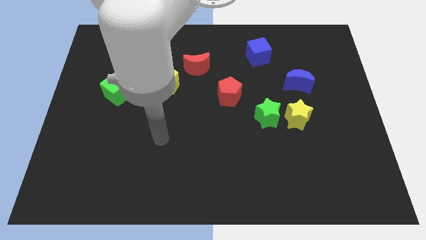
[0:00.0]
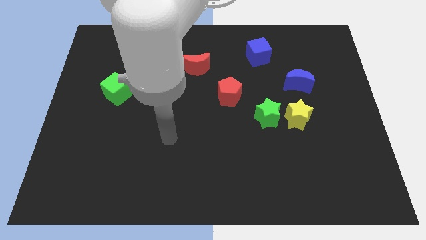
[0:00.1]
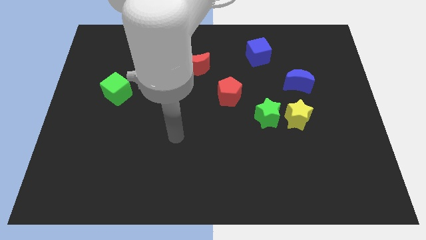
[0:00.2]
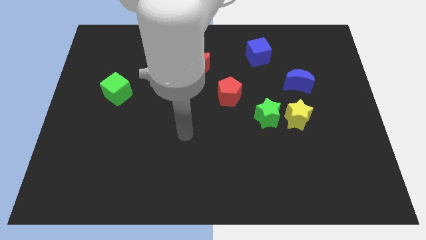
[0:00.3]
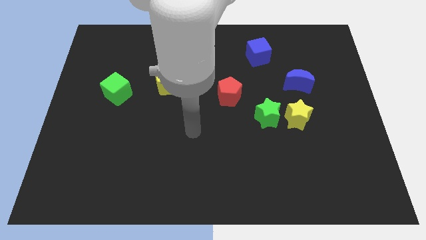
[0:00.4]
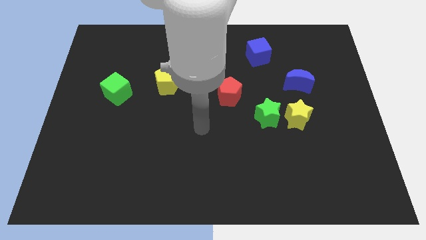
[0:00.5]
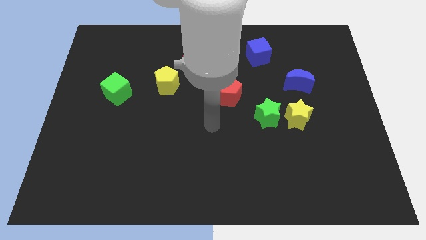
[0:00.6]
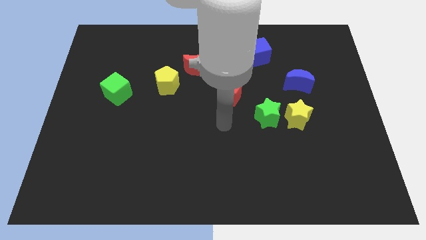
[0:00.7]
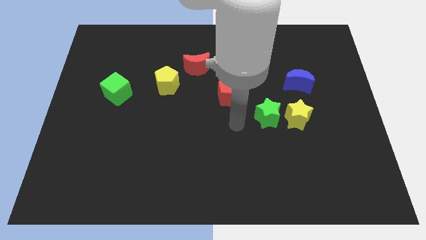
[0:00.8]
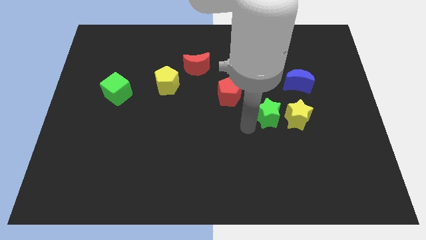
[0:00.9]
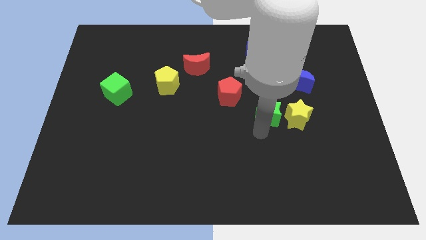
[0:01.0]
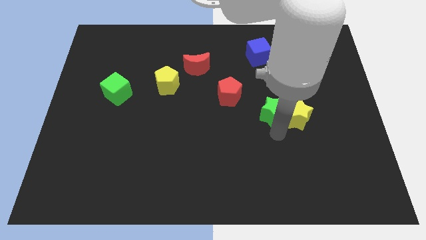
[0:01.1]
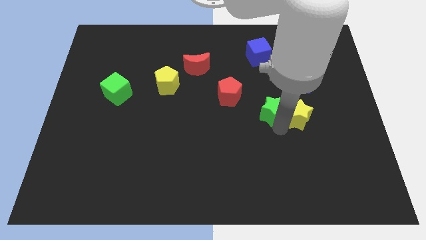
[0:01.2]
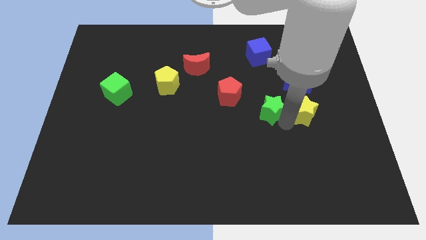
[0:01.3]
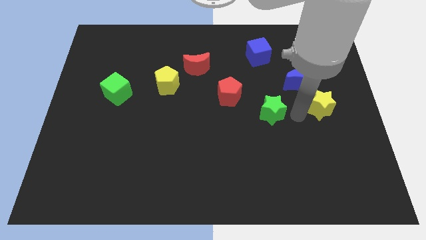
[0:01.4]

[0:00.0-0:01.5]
separate the green star from the yellow star

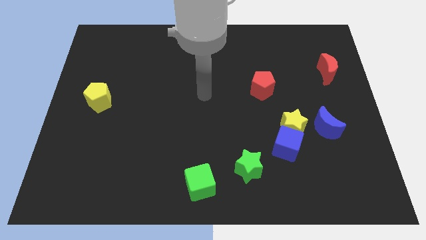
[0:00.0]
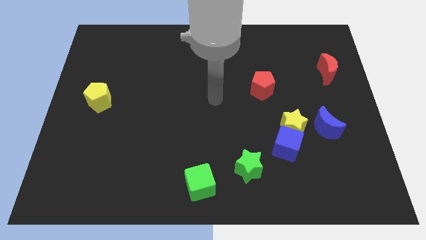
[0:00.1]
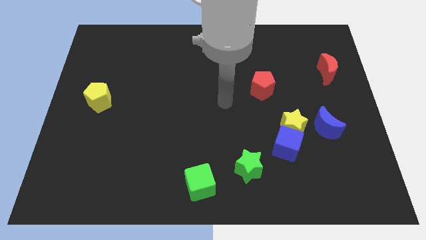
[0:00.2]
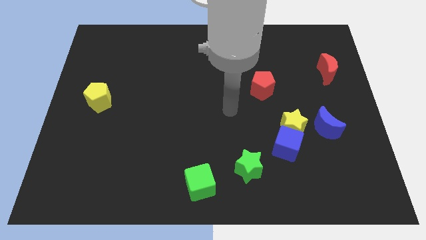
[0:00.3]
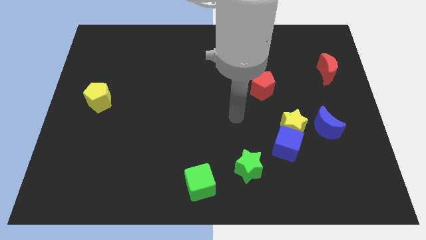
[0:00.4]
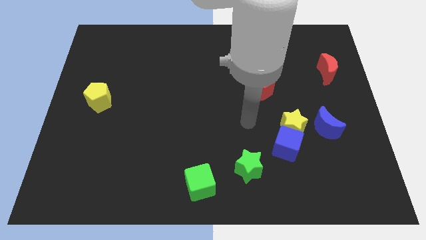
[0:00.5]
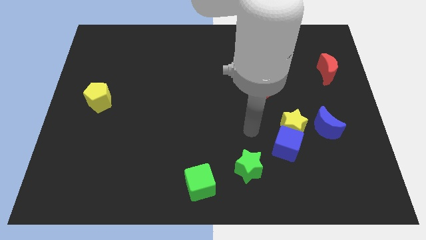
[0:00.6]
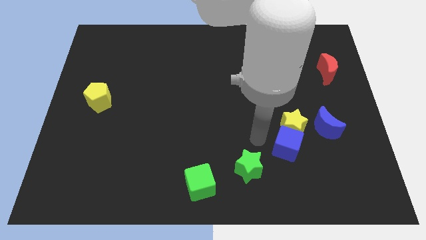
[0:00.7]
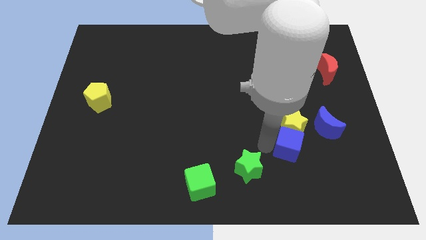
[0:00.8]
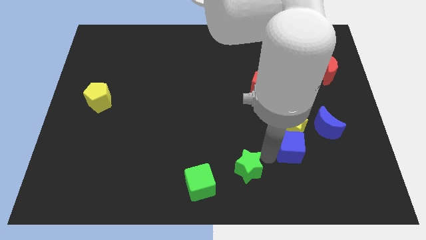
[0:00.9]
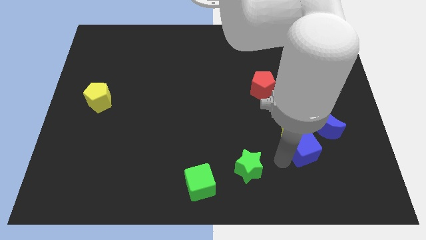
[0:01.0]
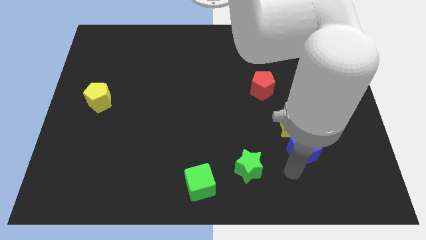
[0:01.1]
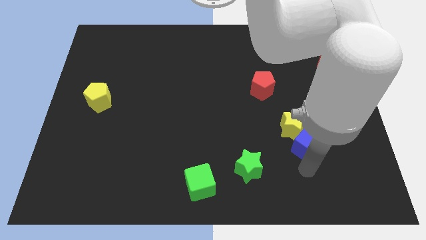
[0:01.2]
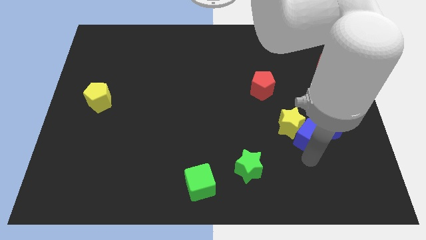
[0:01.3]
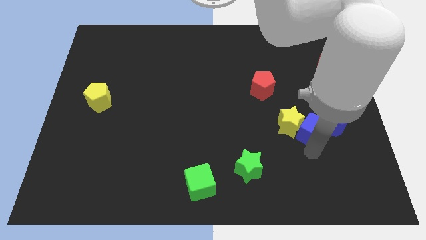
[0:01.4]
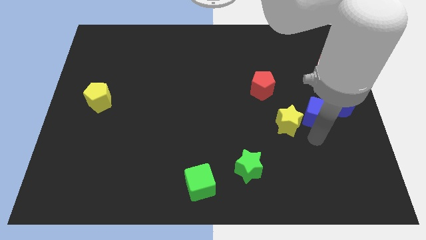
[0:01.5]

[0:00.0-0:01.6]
separate the yellow star from the blue cube and blue moon

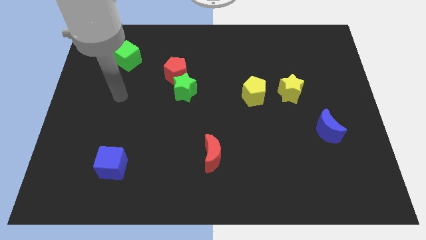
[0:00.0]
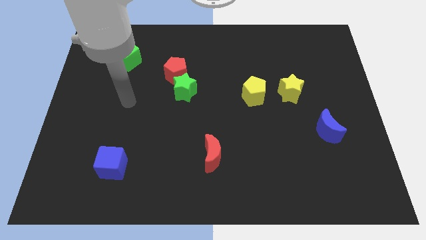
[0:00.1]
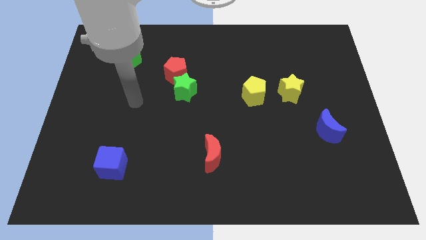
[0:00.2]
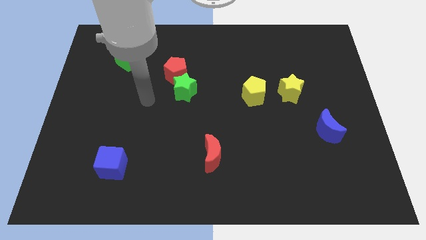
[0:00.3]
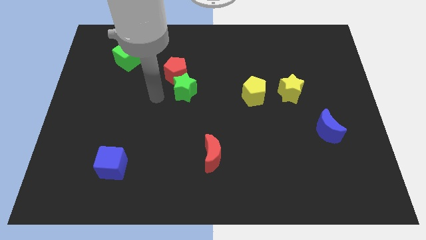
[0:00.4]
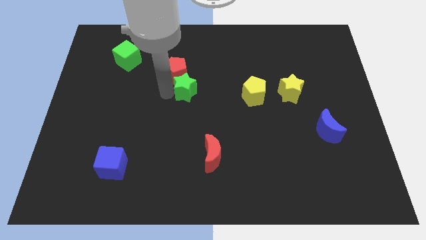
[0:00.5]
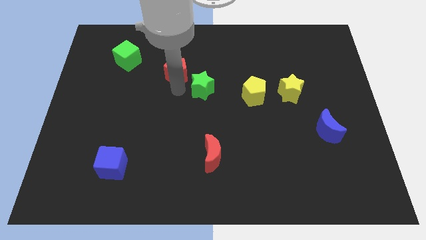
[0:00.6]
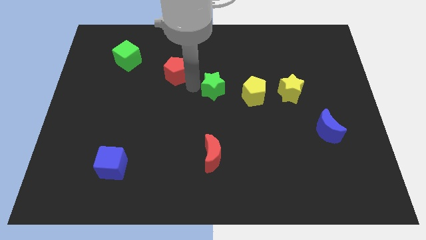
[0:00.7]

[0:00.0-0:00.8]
separate the red pentagon from the green star

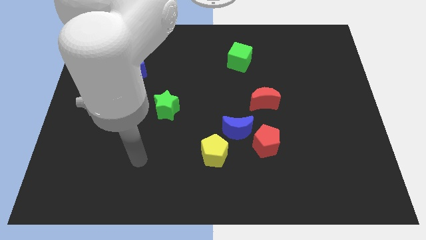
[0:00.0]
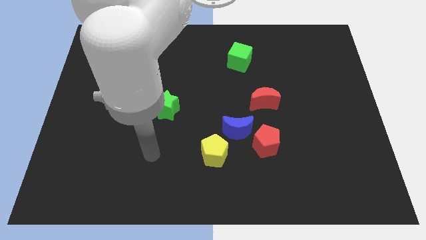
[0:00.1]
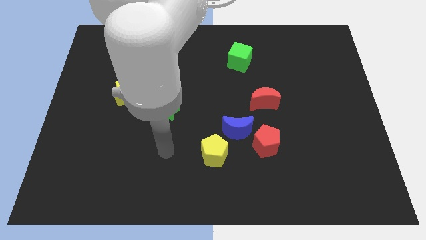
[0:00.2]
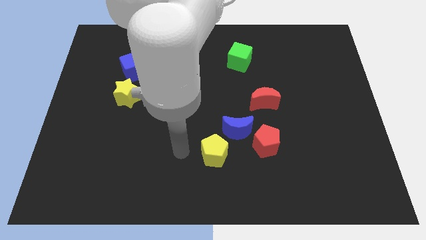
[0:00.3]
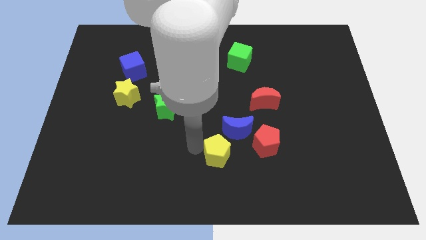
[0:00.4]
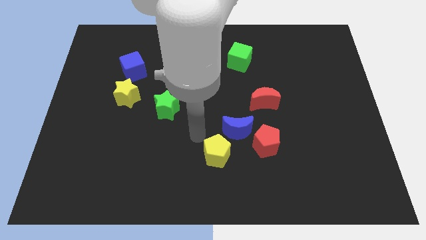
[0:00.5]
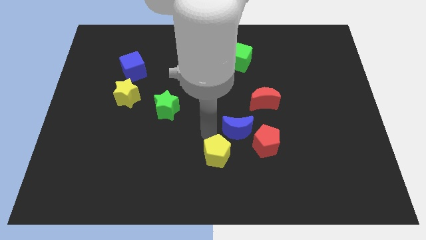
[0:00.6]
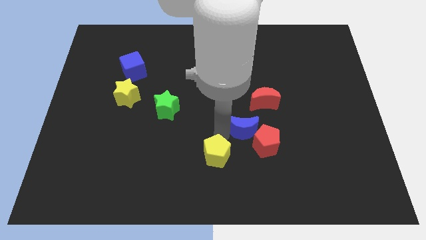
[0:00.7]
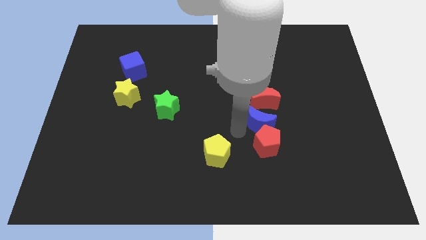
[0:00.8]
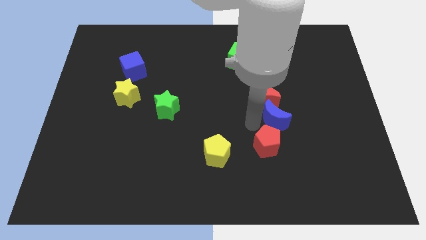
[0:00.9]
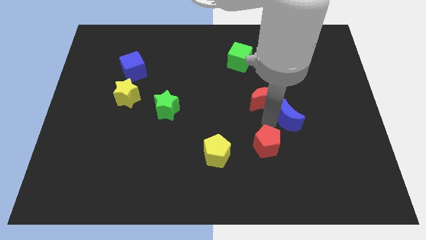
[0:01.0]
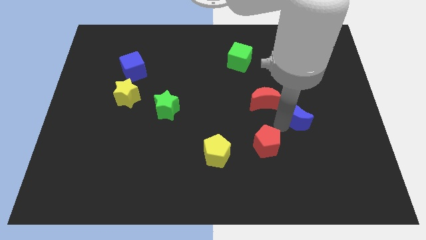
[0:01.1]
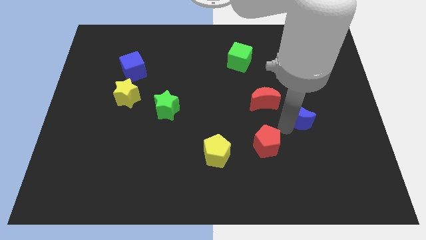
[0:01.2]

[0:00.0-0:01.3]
separate the red pentagon from the blue moon

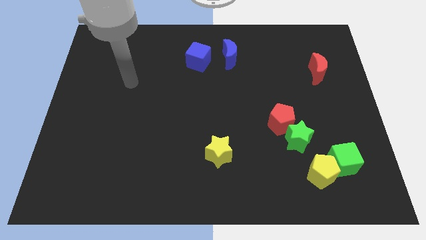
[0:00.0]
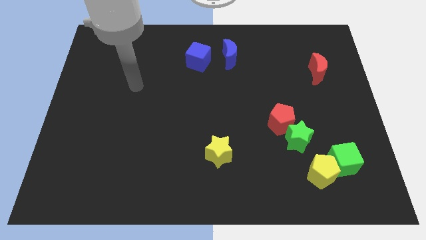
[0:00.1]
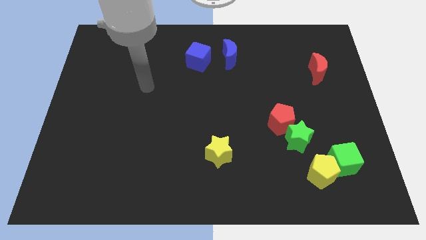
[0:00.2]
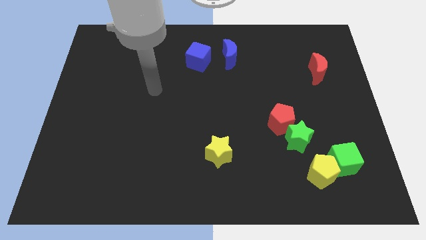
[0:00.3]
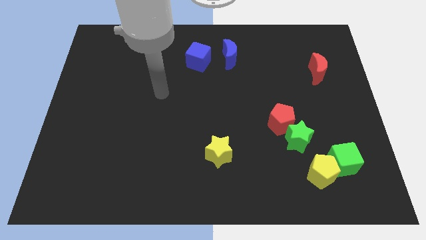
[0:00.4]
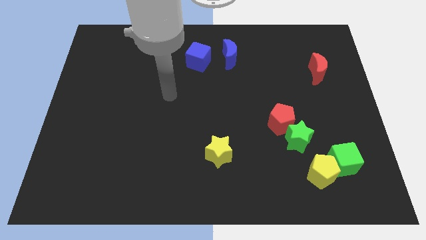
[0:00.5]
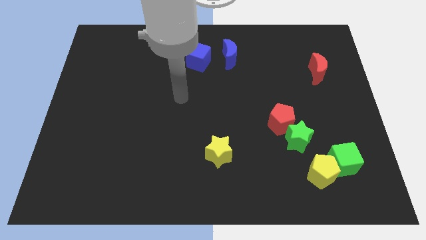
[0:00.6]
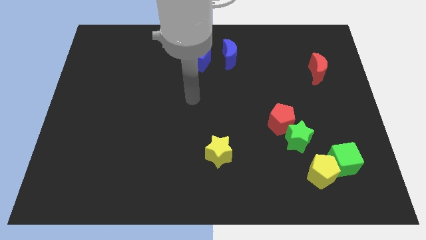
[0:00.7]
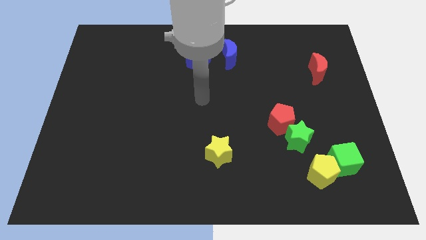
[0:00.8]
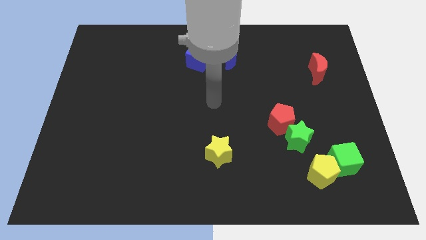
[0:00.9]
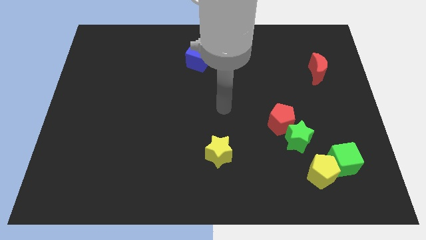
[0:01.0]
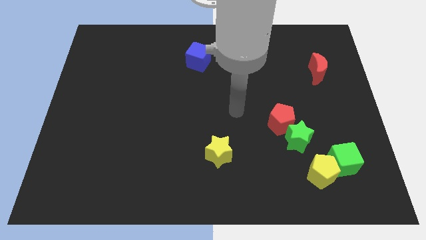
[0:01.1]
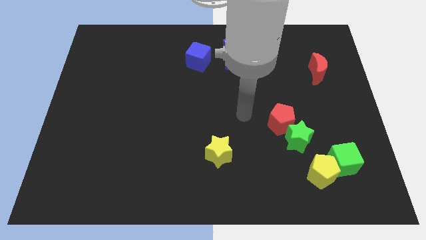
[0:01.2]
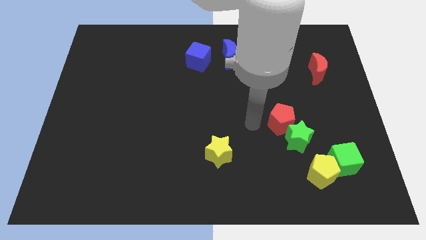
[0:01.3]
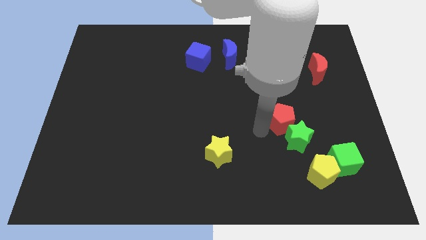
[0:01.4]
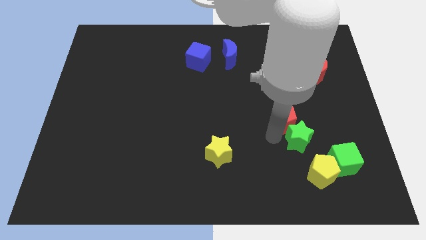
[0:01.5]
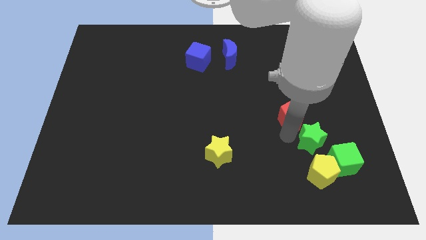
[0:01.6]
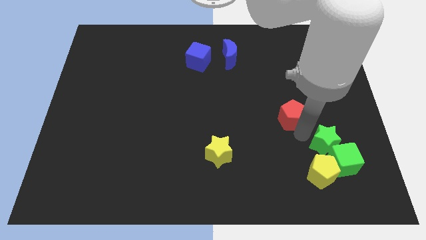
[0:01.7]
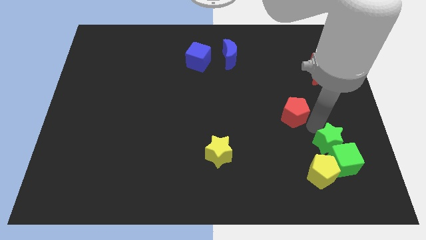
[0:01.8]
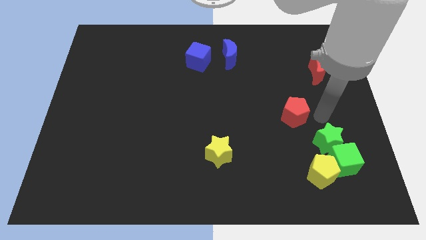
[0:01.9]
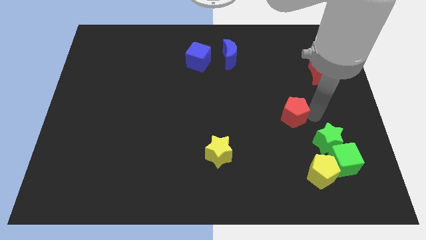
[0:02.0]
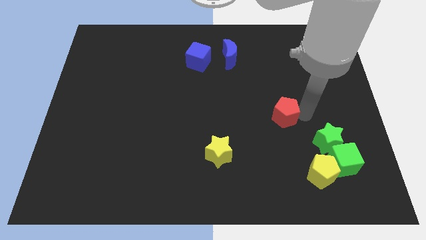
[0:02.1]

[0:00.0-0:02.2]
pull the red pentagon apart from the green star

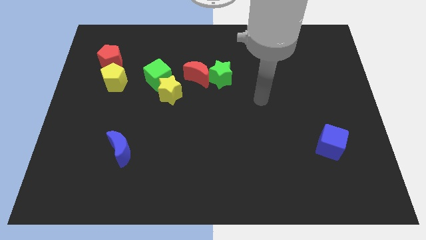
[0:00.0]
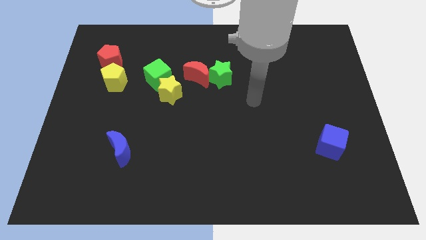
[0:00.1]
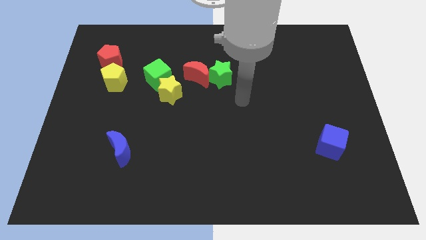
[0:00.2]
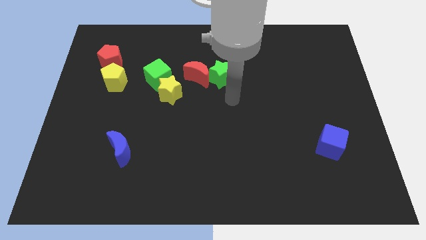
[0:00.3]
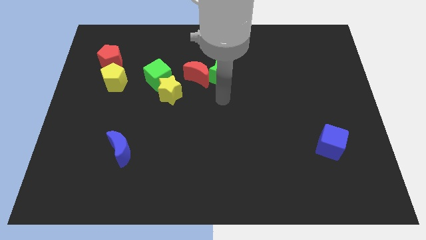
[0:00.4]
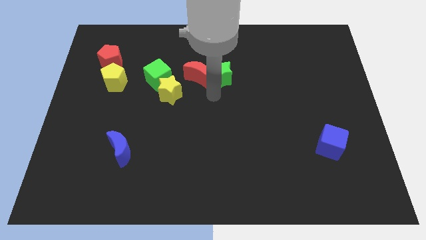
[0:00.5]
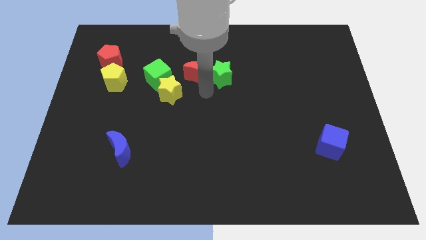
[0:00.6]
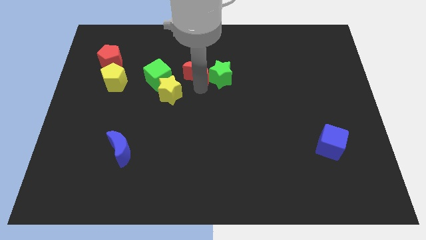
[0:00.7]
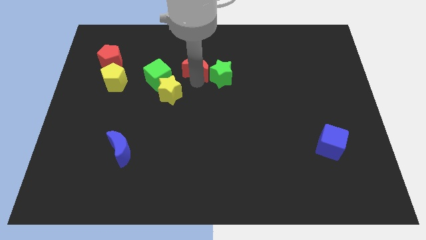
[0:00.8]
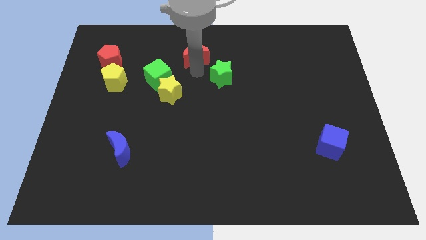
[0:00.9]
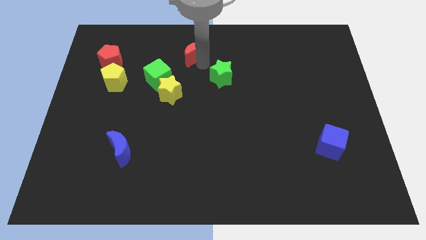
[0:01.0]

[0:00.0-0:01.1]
separate the green star from the red moon

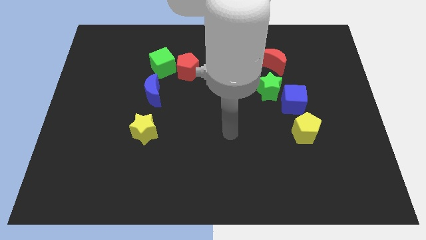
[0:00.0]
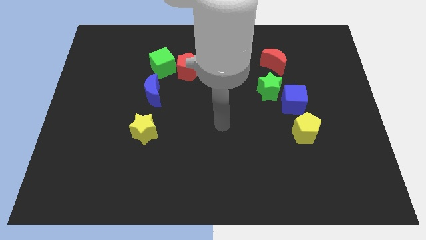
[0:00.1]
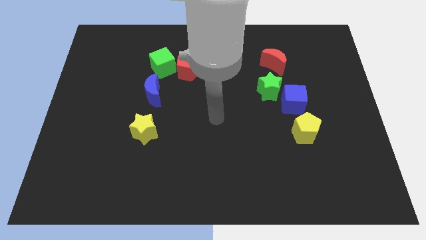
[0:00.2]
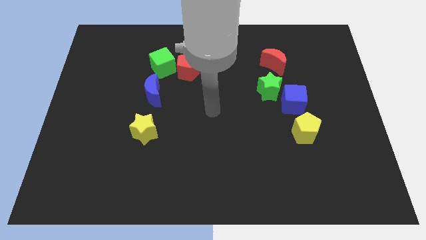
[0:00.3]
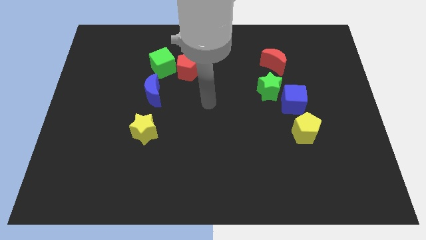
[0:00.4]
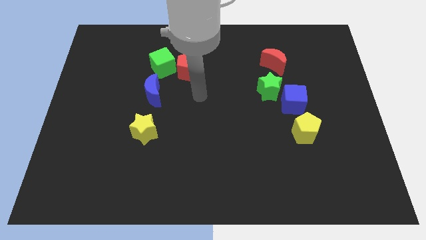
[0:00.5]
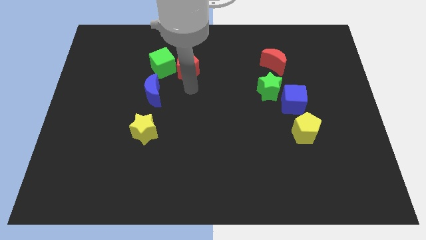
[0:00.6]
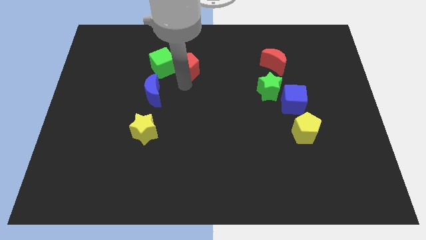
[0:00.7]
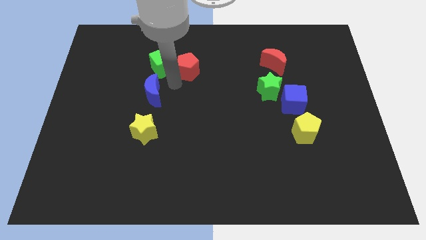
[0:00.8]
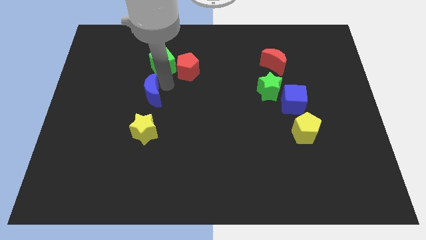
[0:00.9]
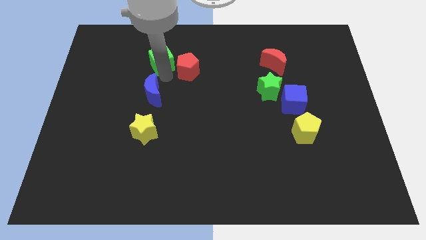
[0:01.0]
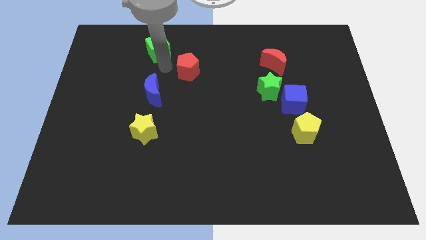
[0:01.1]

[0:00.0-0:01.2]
separate the red pentagon from the green cube
